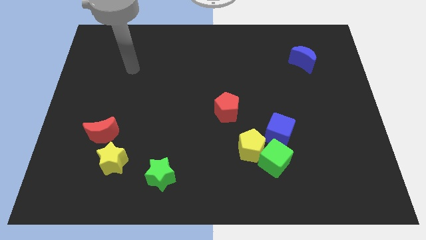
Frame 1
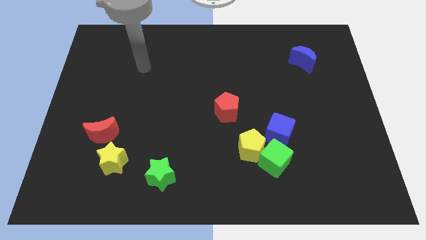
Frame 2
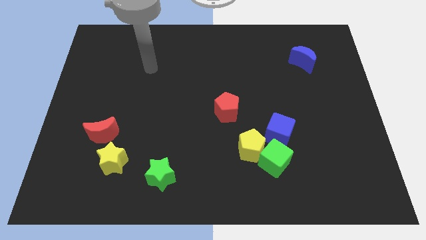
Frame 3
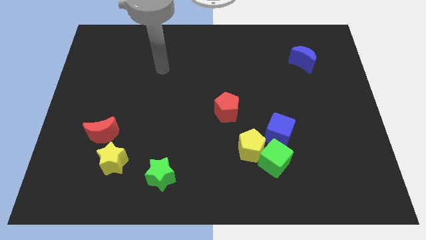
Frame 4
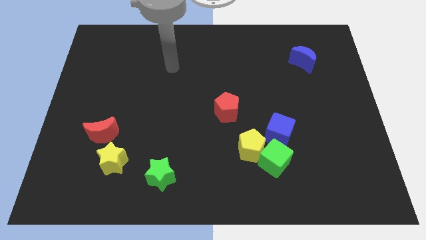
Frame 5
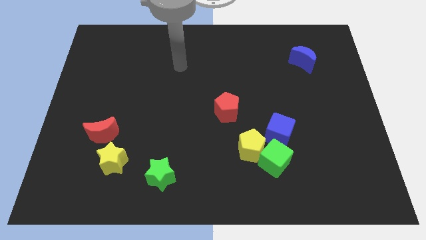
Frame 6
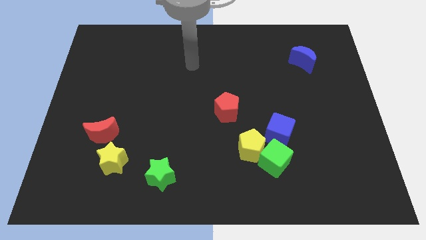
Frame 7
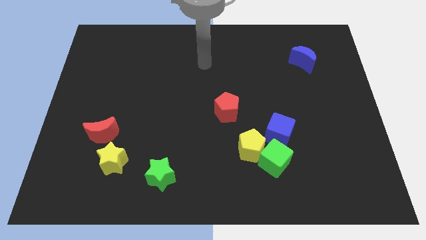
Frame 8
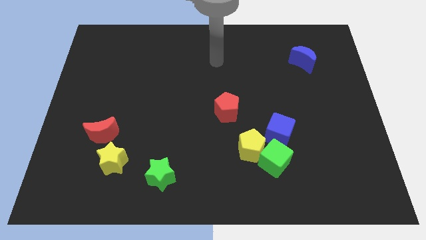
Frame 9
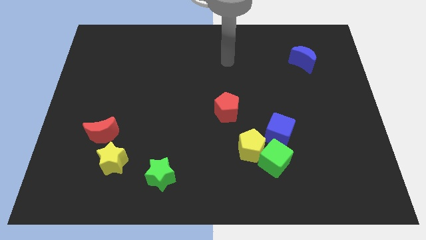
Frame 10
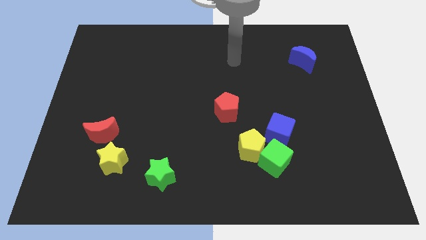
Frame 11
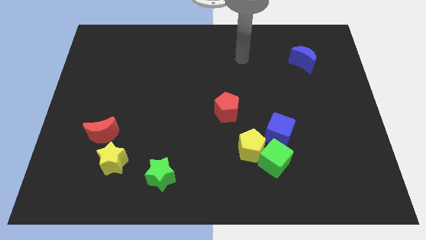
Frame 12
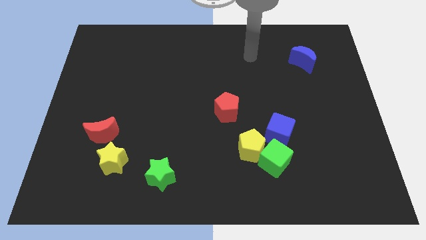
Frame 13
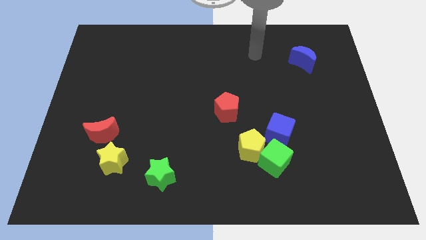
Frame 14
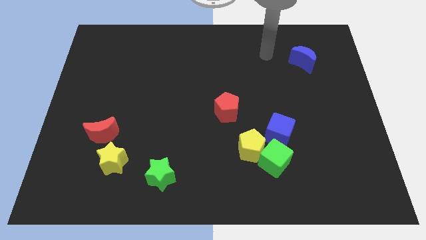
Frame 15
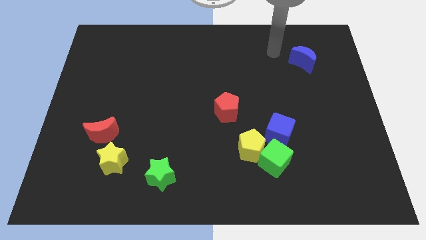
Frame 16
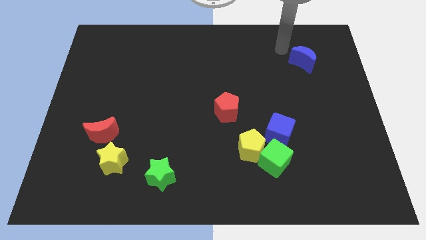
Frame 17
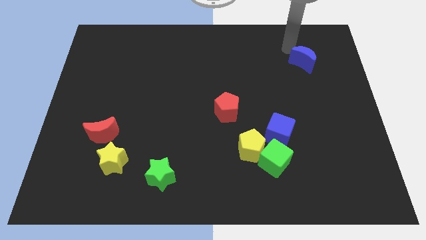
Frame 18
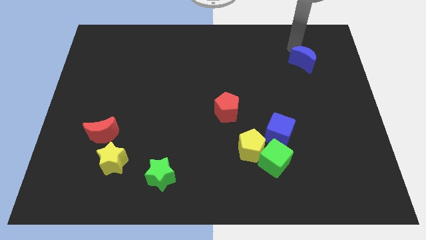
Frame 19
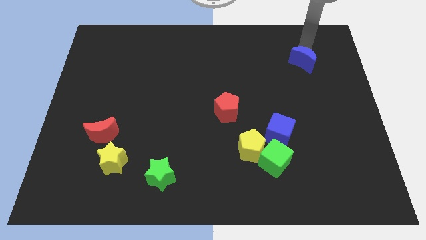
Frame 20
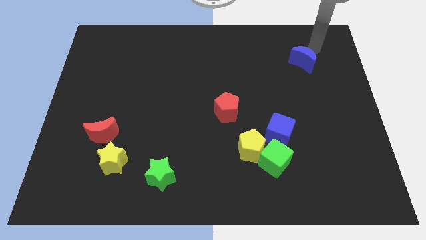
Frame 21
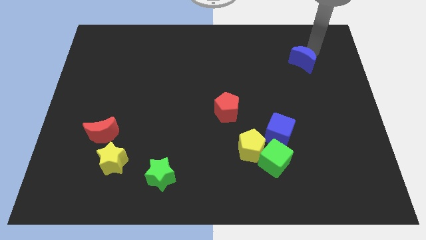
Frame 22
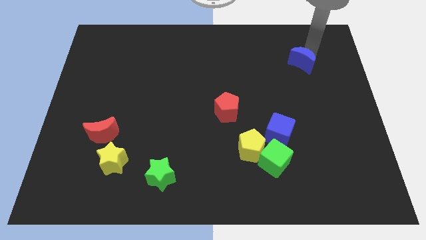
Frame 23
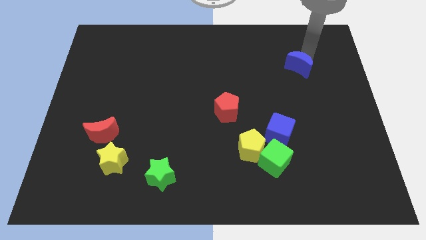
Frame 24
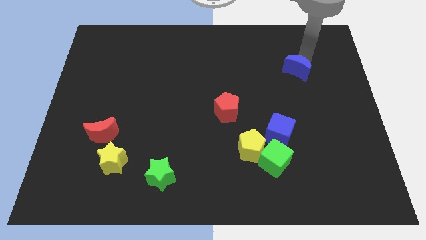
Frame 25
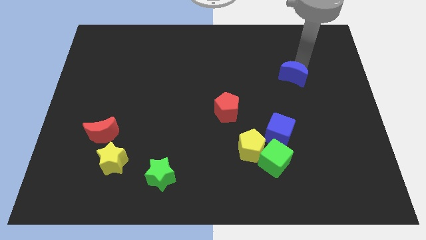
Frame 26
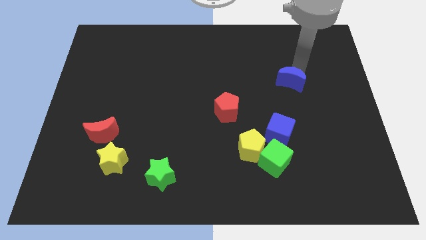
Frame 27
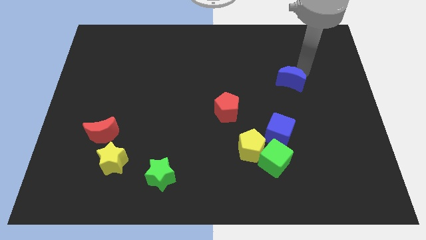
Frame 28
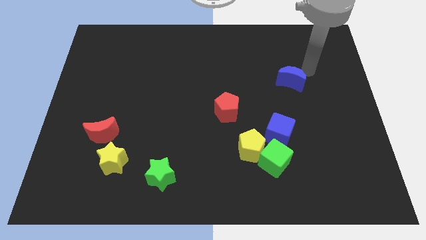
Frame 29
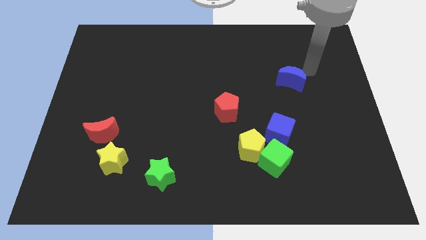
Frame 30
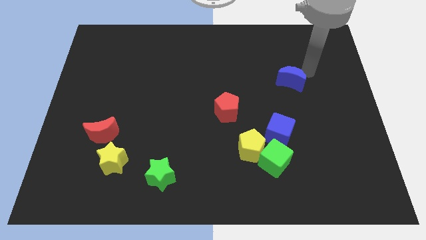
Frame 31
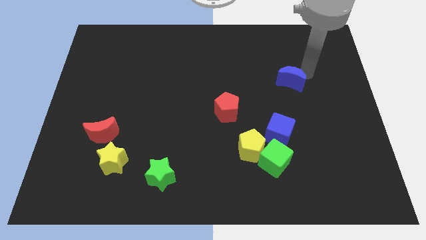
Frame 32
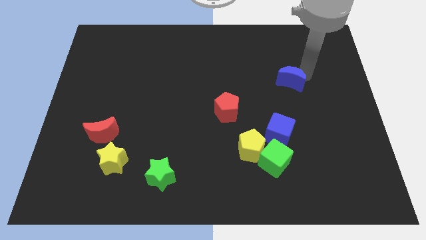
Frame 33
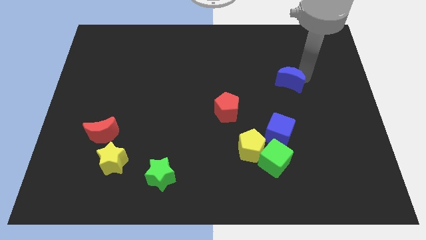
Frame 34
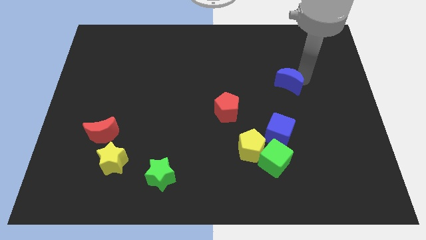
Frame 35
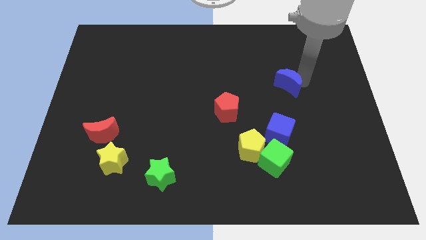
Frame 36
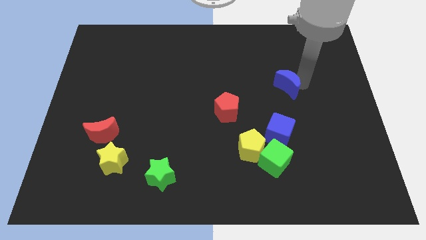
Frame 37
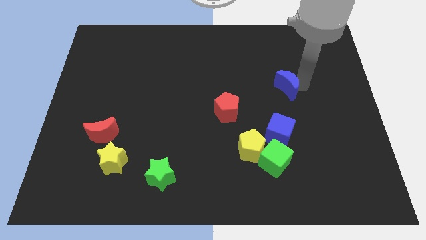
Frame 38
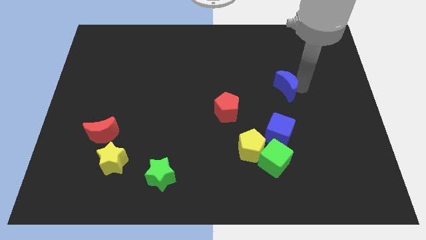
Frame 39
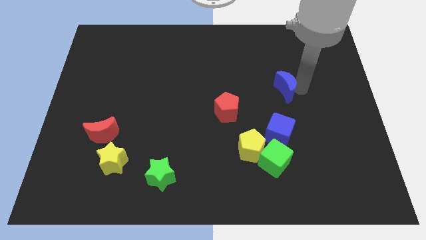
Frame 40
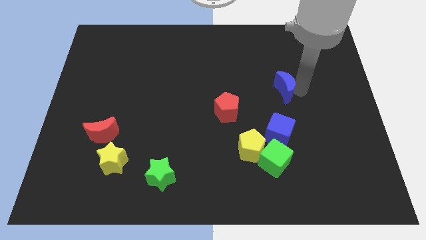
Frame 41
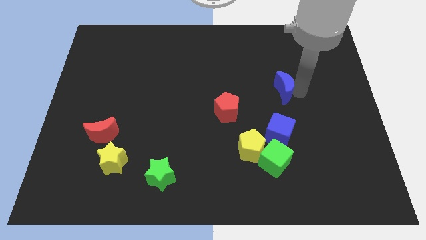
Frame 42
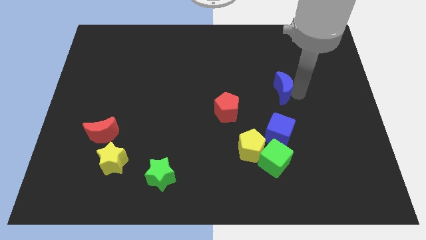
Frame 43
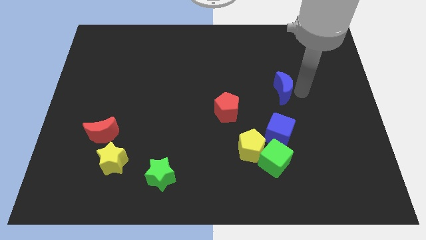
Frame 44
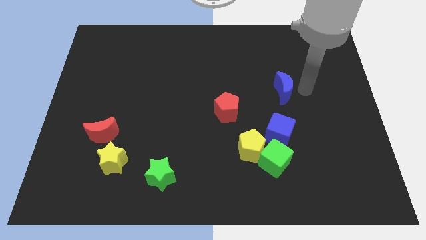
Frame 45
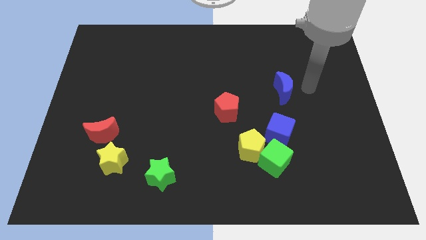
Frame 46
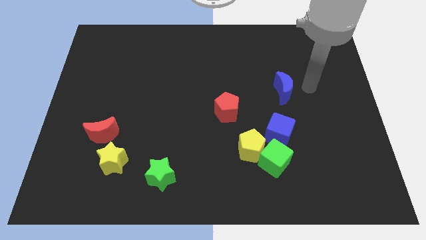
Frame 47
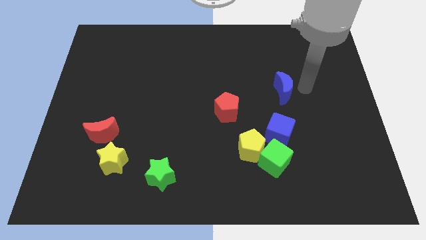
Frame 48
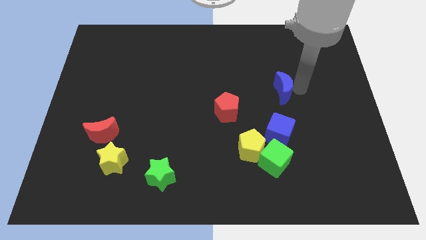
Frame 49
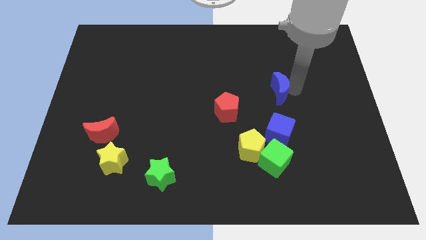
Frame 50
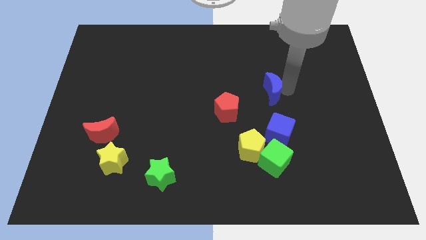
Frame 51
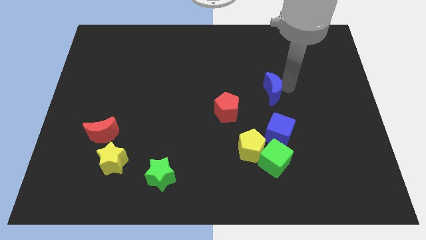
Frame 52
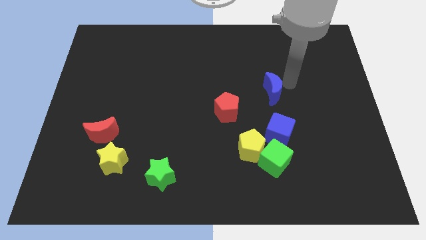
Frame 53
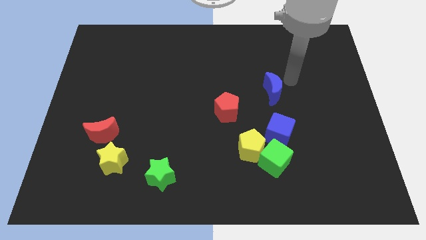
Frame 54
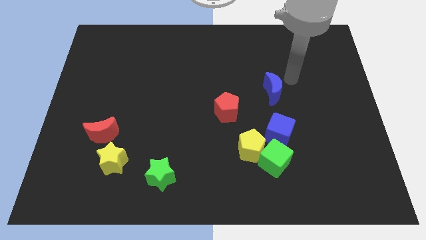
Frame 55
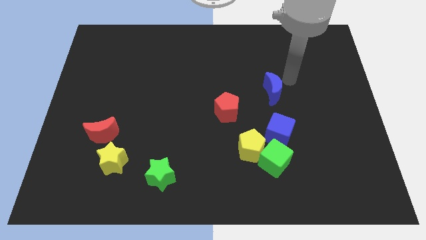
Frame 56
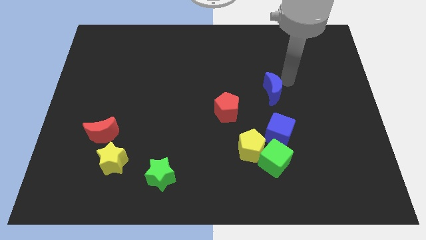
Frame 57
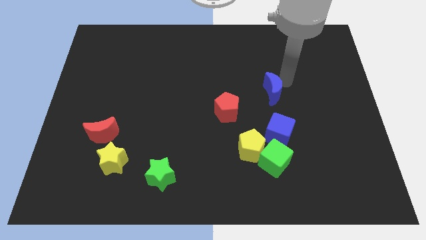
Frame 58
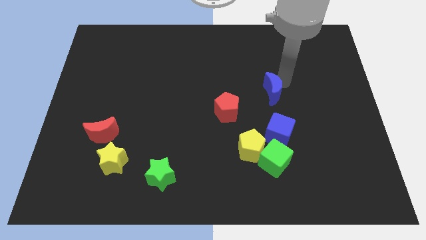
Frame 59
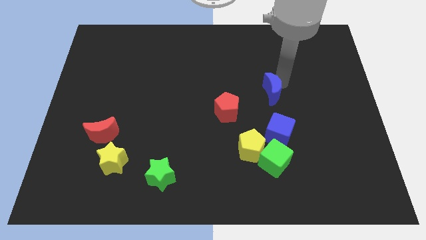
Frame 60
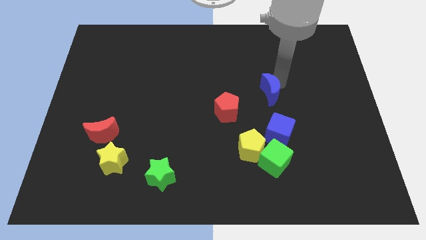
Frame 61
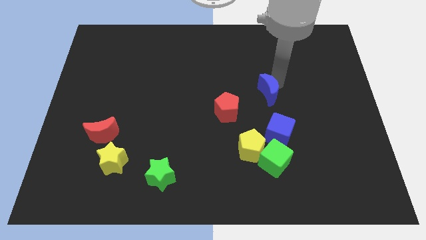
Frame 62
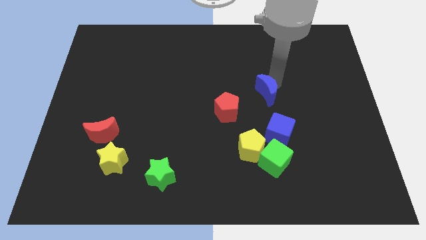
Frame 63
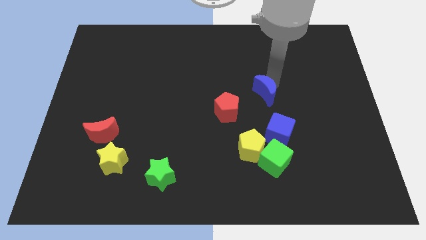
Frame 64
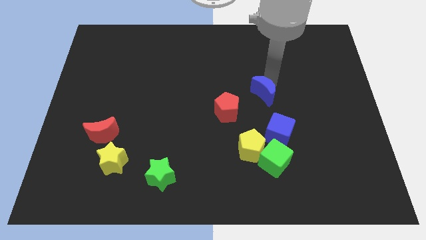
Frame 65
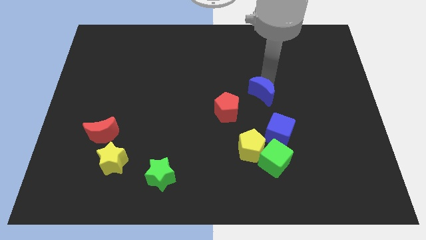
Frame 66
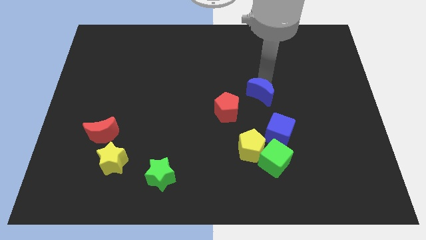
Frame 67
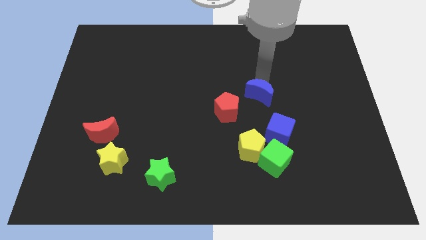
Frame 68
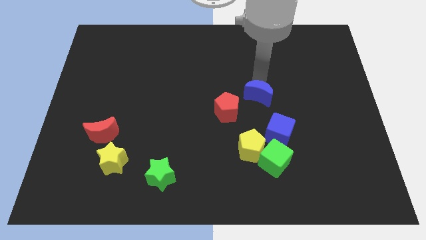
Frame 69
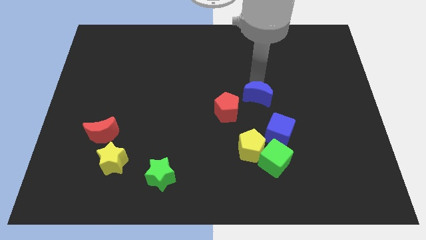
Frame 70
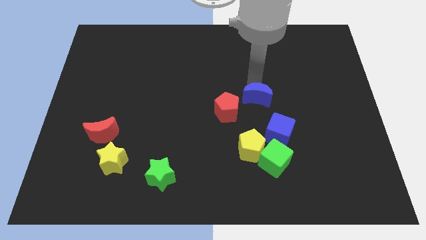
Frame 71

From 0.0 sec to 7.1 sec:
put the blue moon to the top left side of the blue cube
